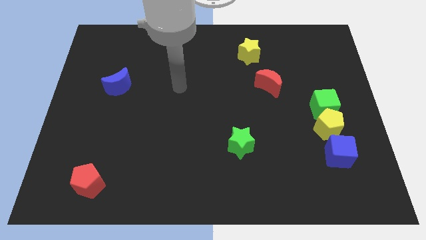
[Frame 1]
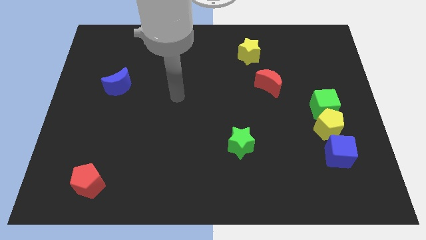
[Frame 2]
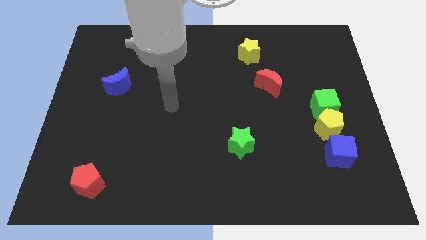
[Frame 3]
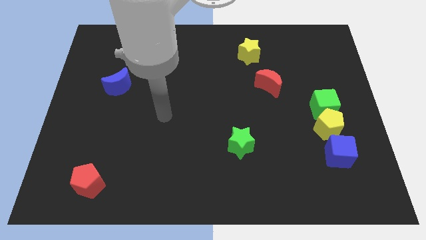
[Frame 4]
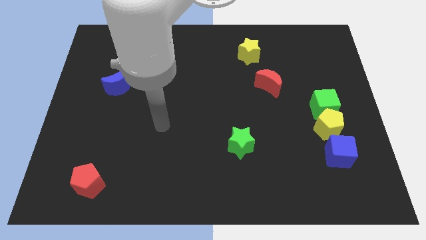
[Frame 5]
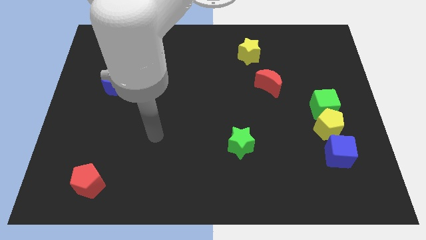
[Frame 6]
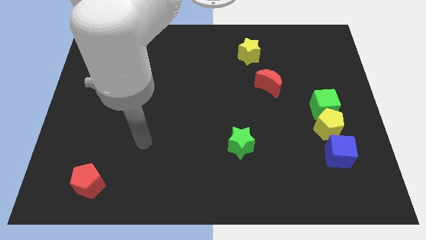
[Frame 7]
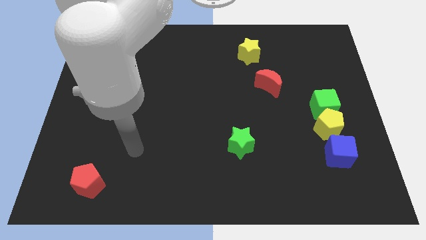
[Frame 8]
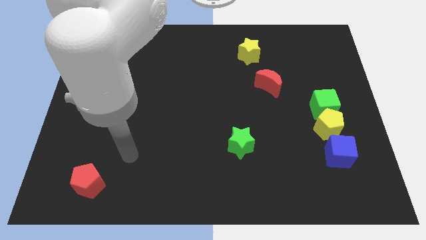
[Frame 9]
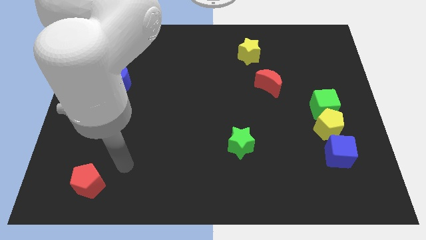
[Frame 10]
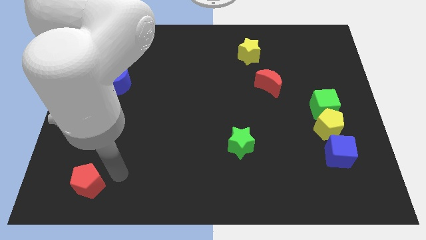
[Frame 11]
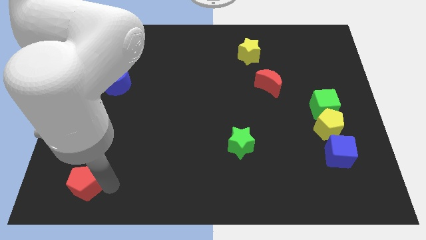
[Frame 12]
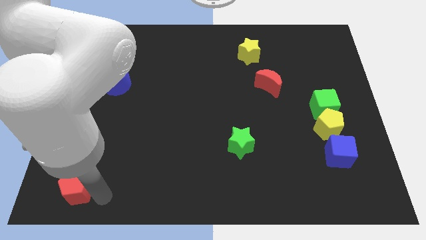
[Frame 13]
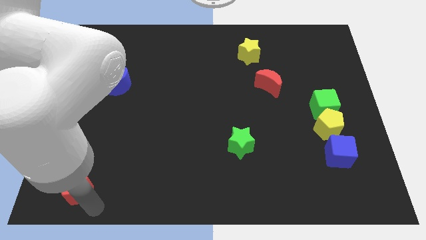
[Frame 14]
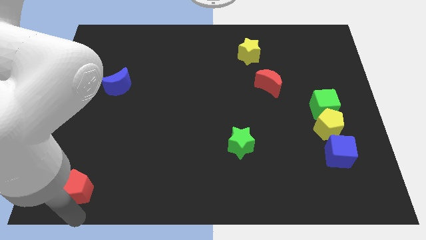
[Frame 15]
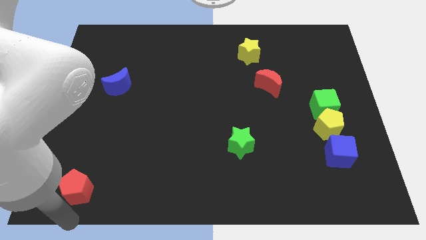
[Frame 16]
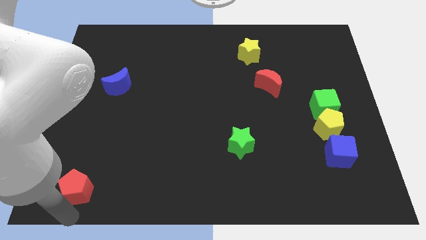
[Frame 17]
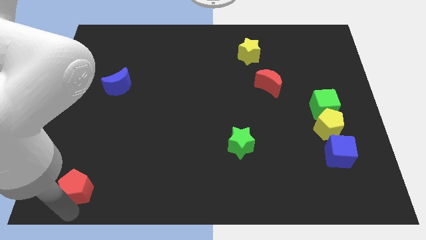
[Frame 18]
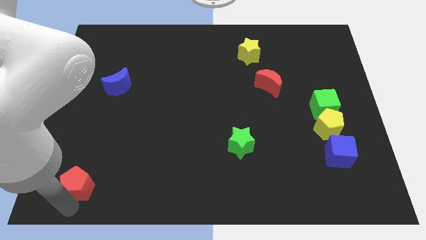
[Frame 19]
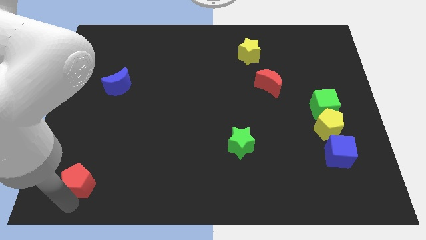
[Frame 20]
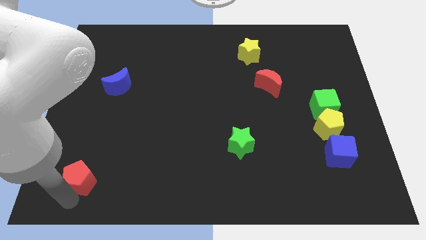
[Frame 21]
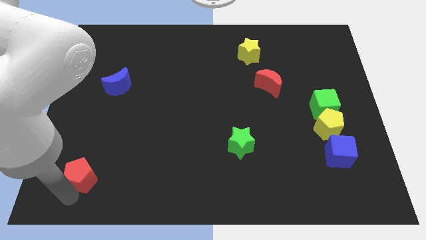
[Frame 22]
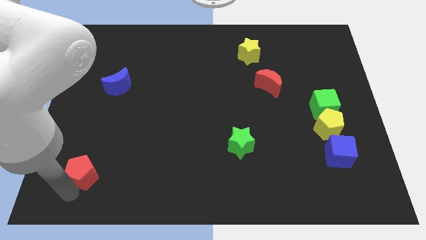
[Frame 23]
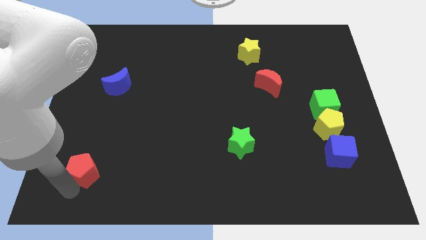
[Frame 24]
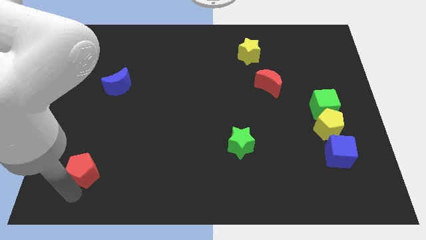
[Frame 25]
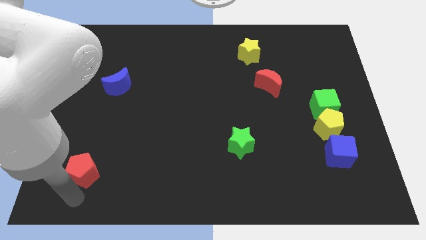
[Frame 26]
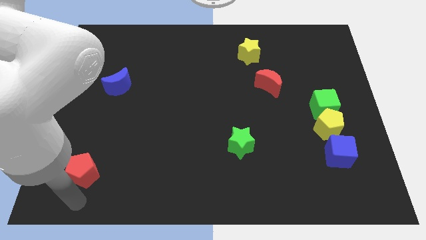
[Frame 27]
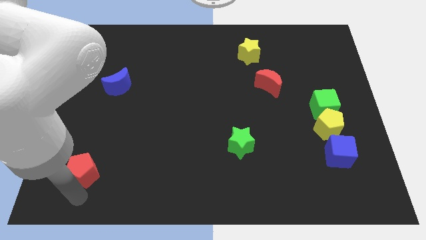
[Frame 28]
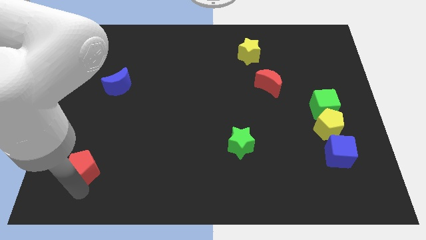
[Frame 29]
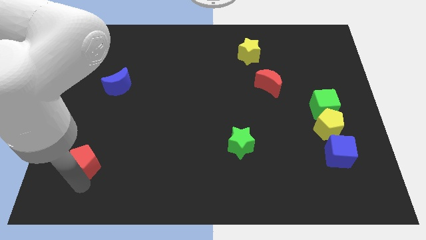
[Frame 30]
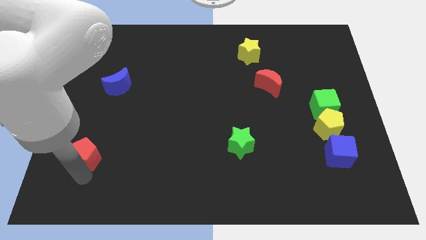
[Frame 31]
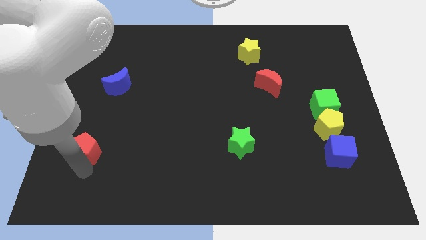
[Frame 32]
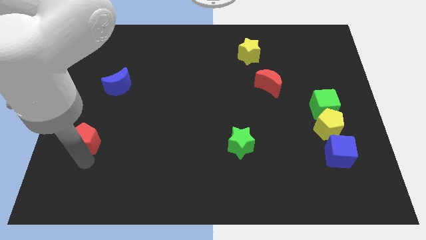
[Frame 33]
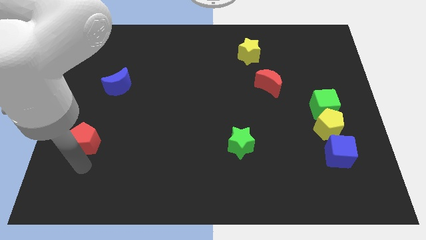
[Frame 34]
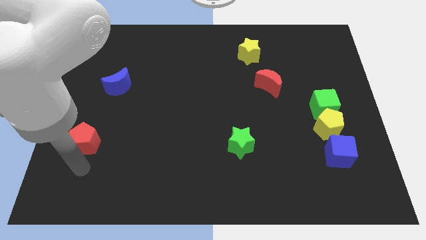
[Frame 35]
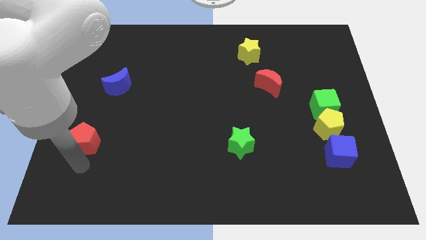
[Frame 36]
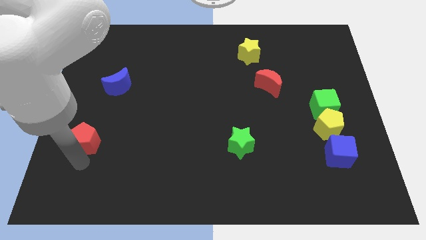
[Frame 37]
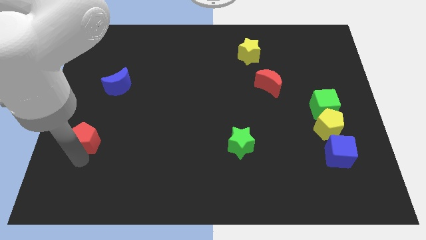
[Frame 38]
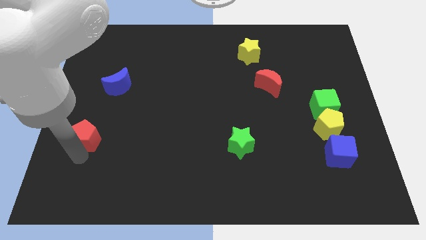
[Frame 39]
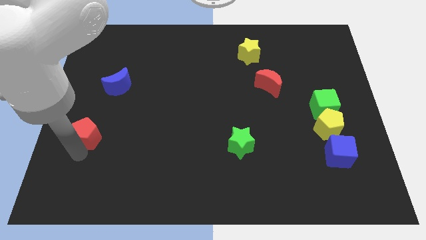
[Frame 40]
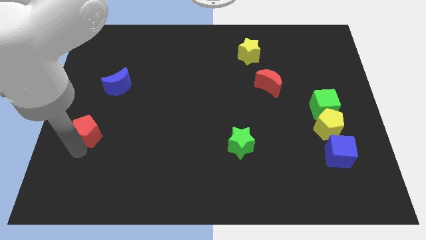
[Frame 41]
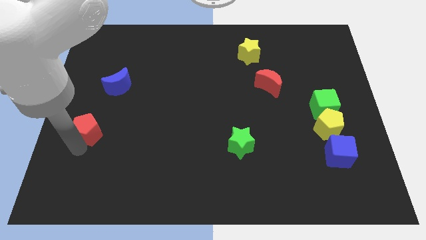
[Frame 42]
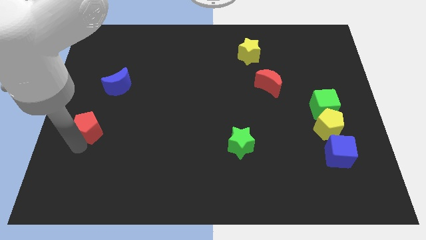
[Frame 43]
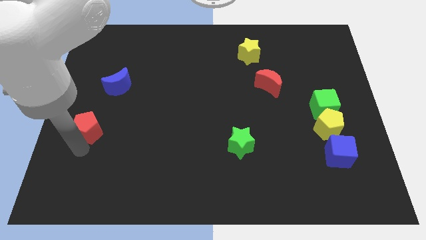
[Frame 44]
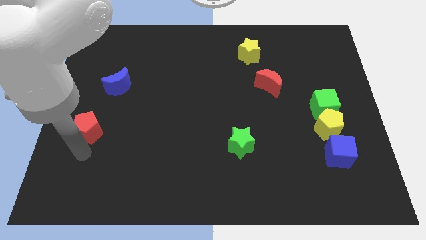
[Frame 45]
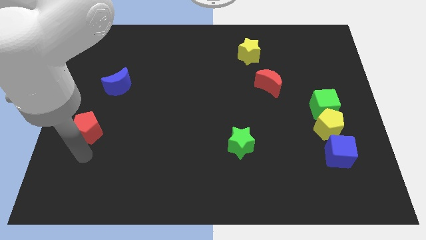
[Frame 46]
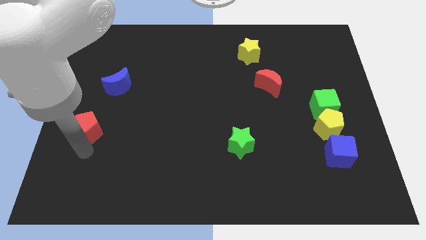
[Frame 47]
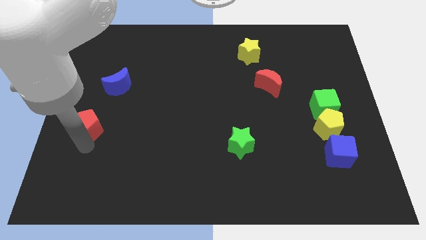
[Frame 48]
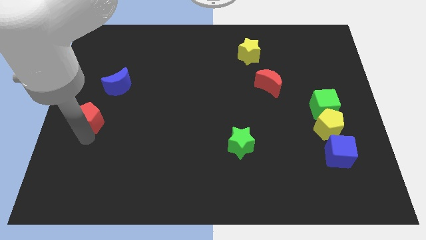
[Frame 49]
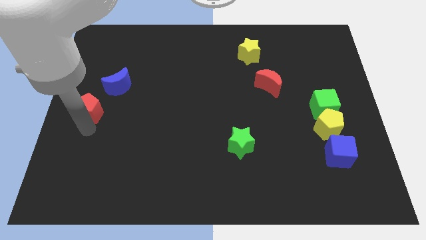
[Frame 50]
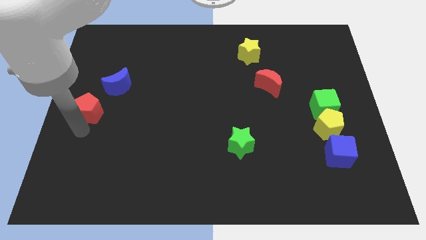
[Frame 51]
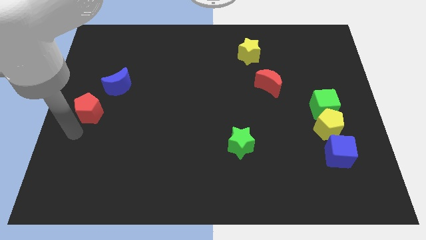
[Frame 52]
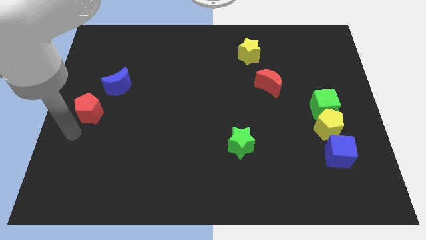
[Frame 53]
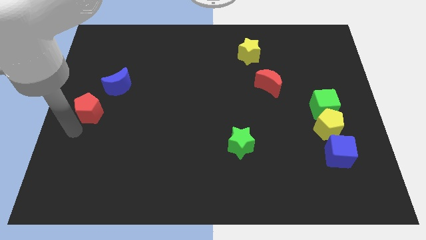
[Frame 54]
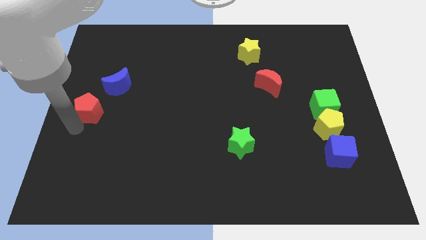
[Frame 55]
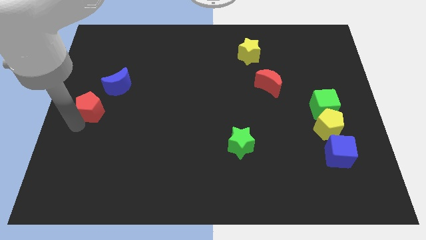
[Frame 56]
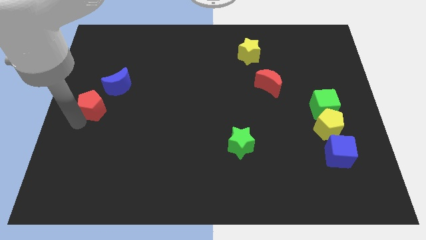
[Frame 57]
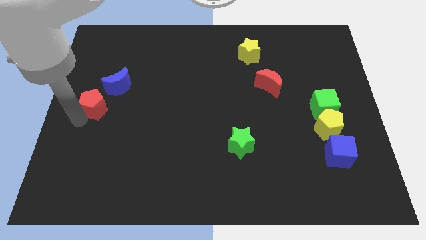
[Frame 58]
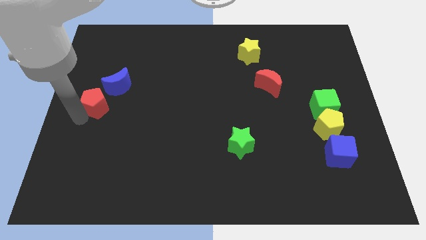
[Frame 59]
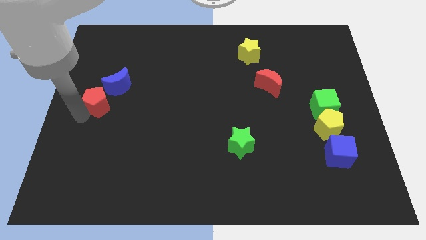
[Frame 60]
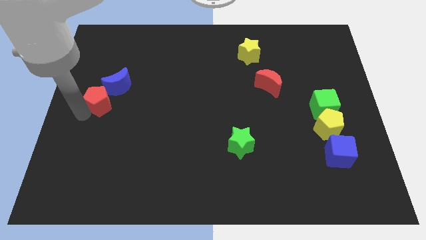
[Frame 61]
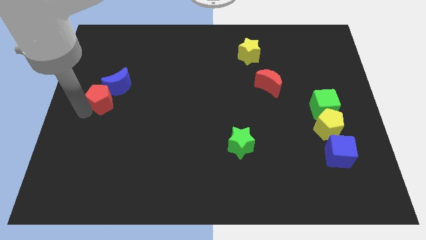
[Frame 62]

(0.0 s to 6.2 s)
push the red pentagon next to the blue moon

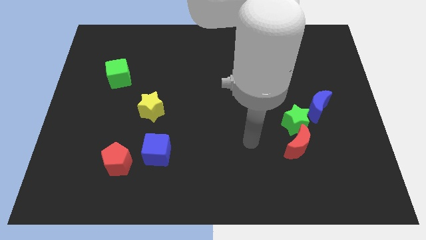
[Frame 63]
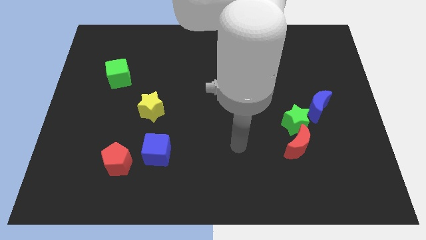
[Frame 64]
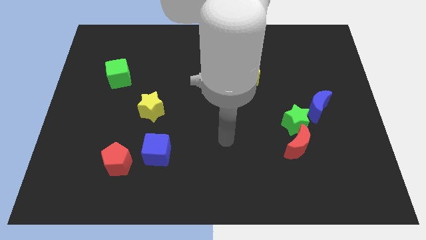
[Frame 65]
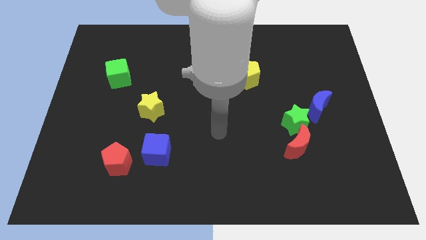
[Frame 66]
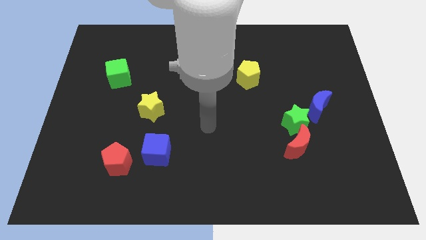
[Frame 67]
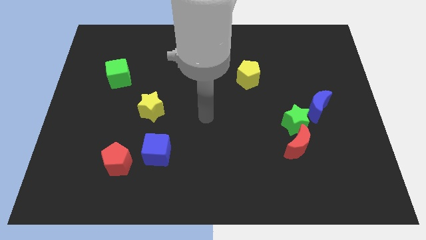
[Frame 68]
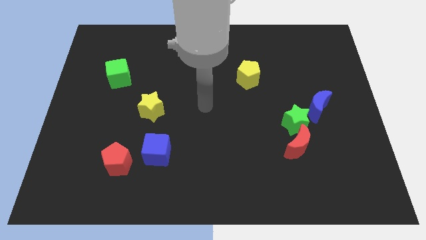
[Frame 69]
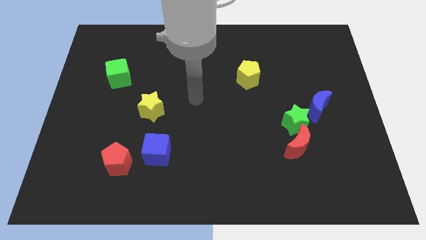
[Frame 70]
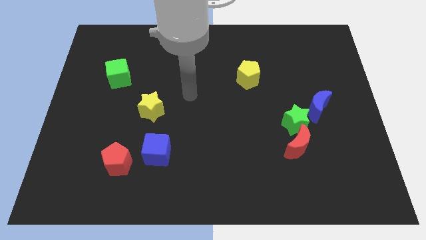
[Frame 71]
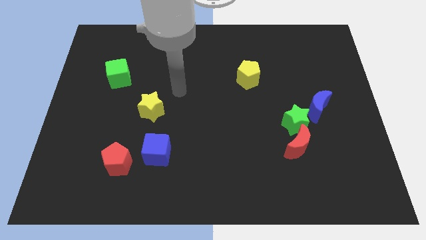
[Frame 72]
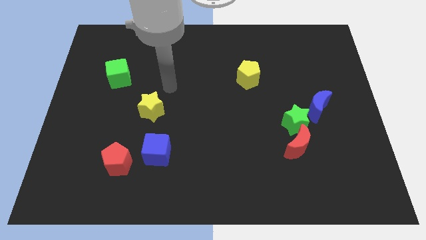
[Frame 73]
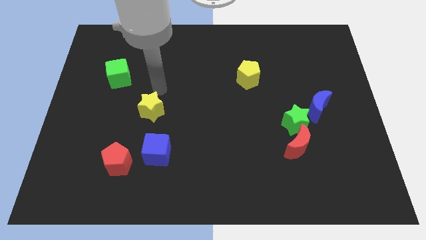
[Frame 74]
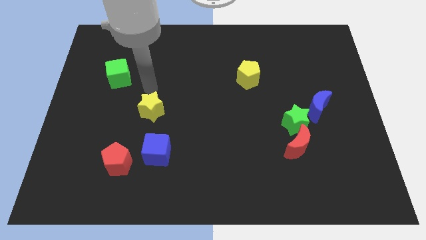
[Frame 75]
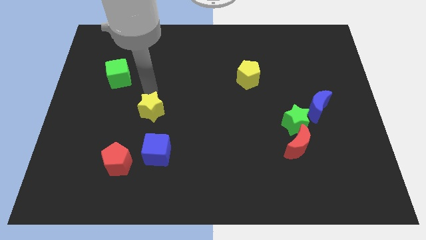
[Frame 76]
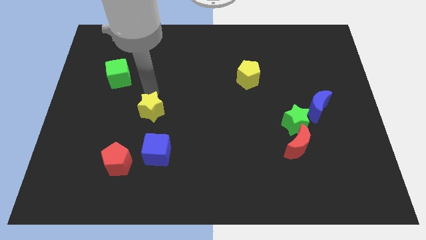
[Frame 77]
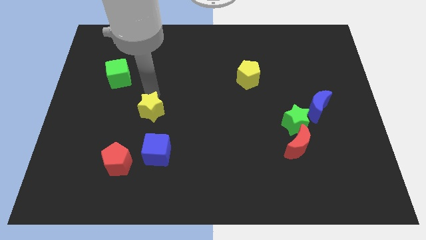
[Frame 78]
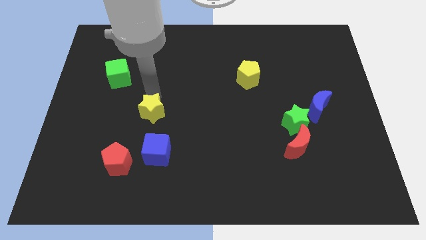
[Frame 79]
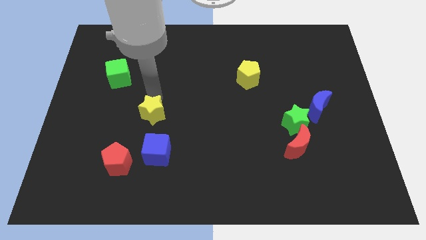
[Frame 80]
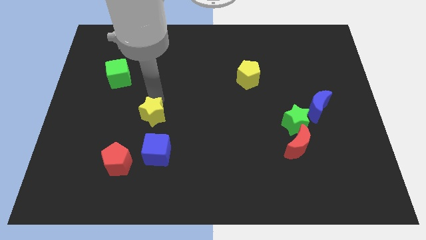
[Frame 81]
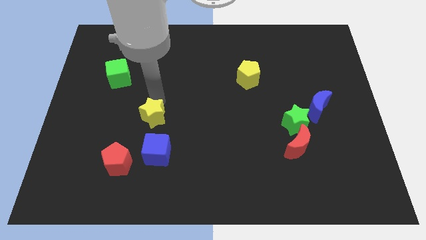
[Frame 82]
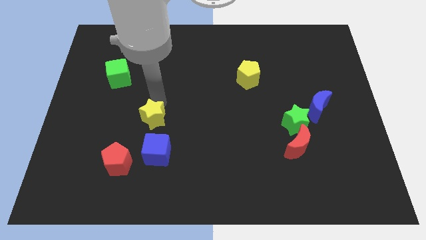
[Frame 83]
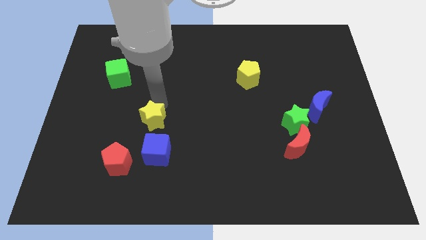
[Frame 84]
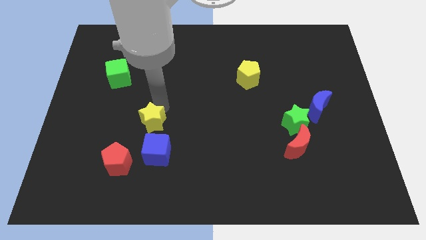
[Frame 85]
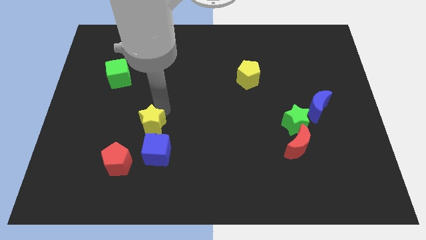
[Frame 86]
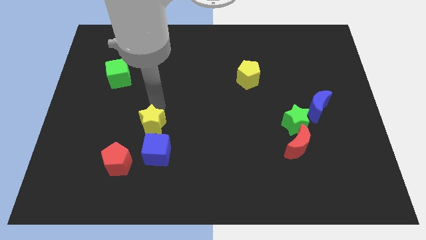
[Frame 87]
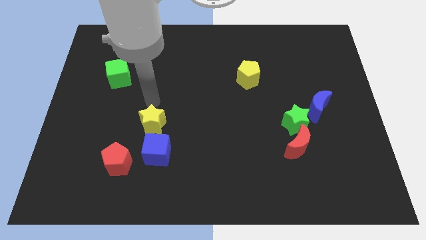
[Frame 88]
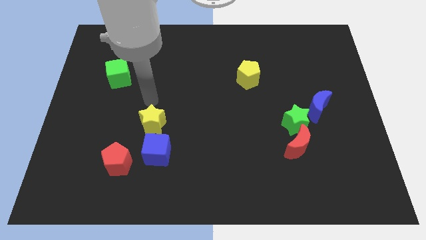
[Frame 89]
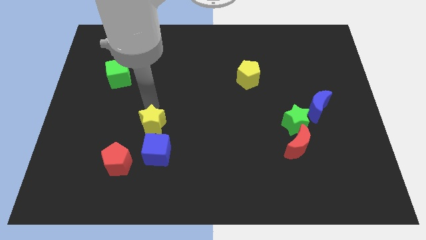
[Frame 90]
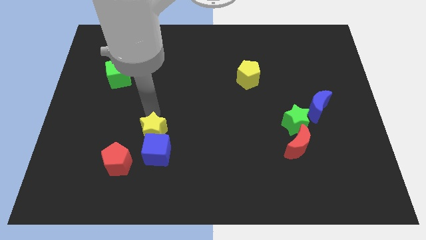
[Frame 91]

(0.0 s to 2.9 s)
put the yellow star close to the blue cube
